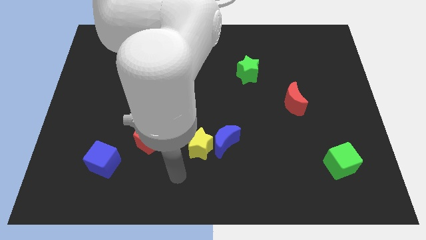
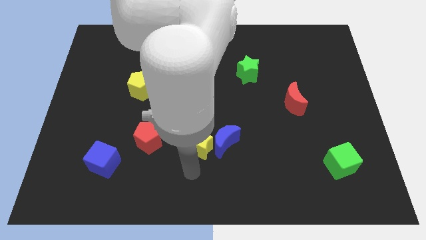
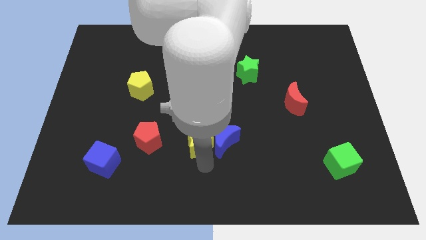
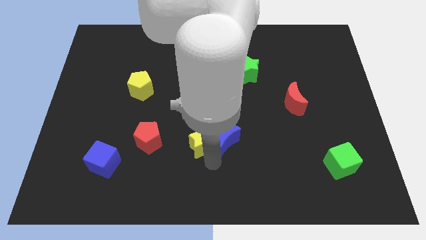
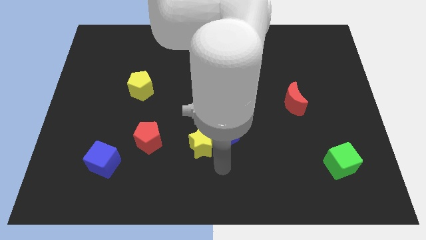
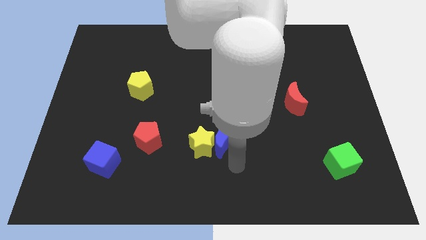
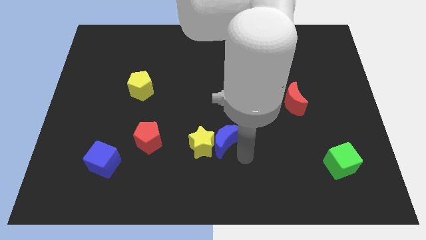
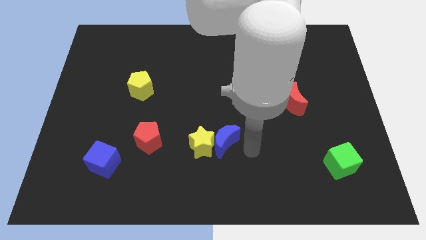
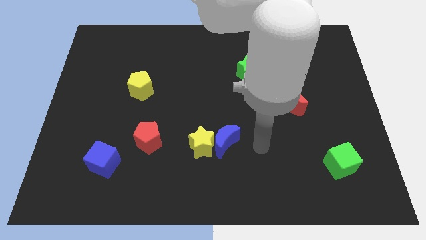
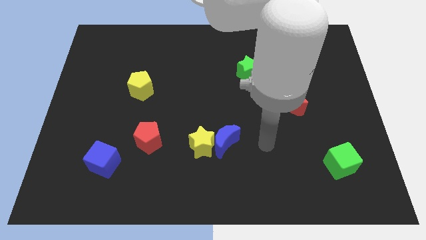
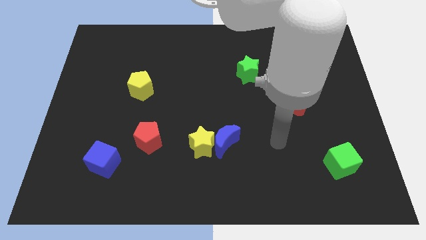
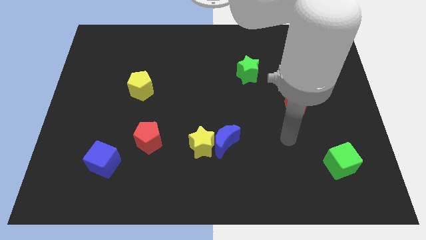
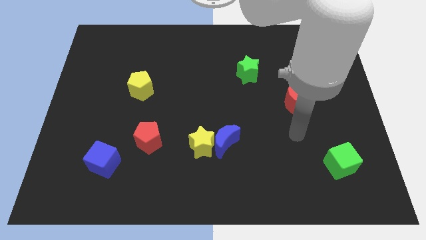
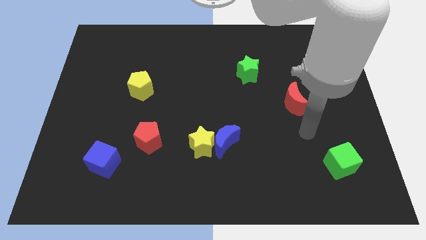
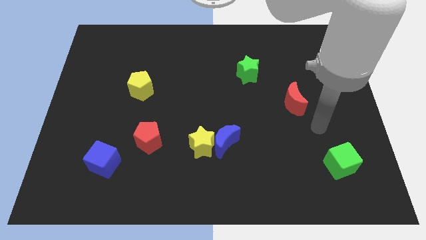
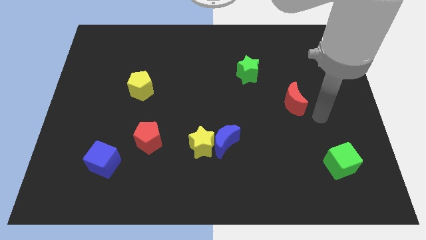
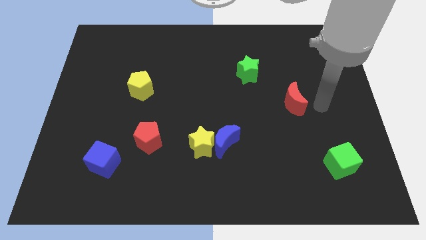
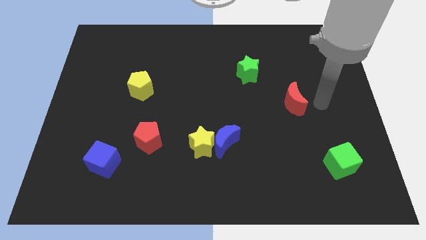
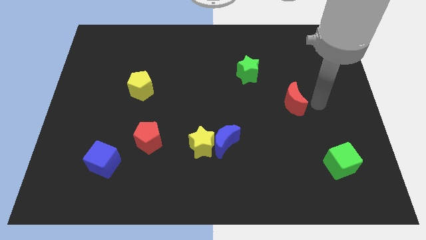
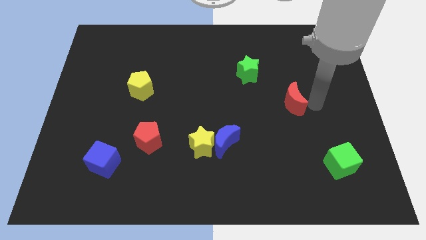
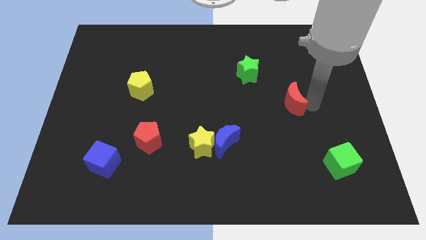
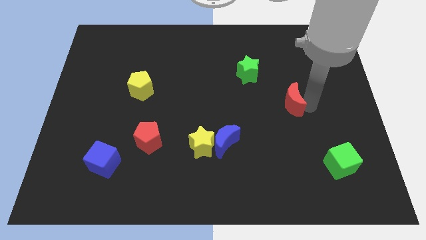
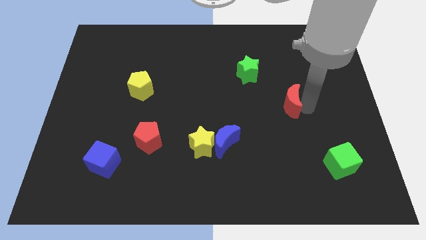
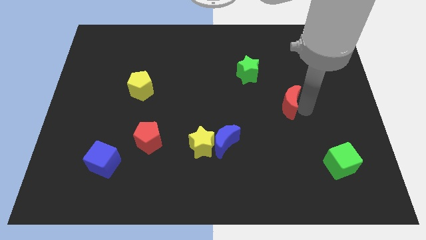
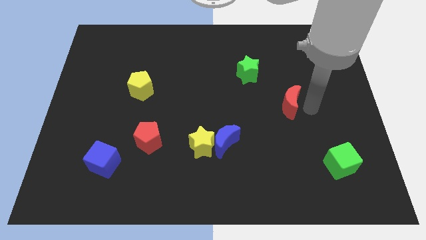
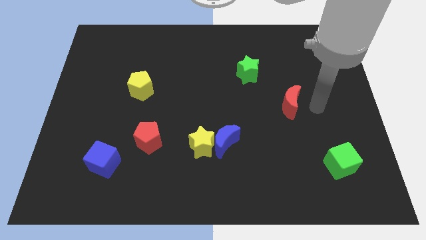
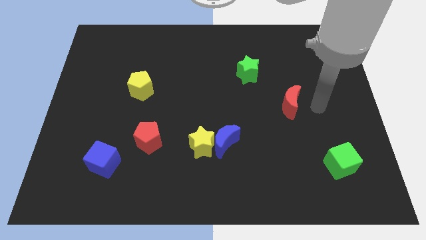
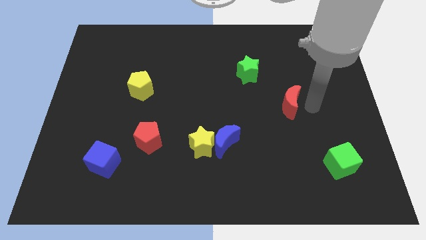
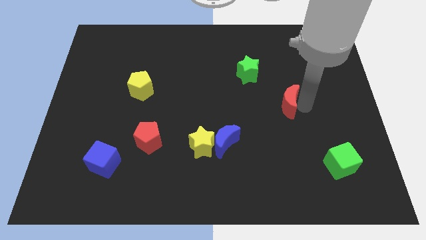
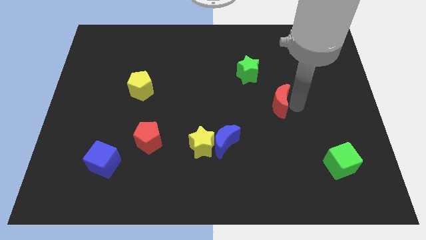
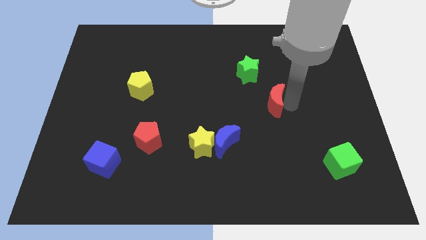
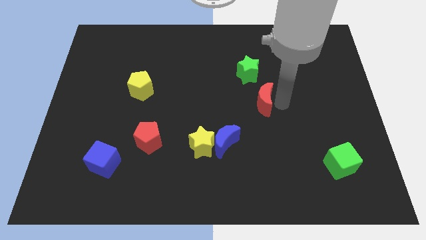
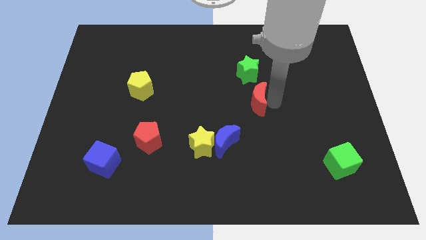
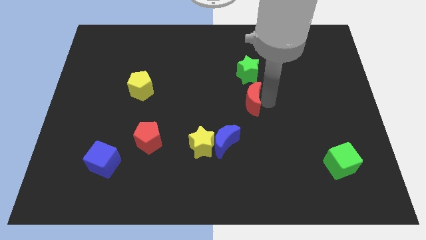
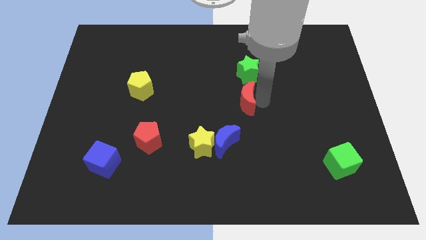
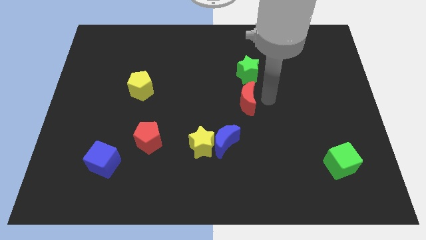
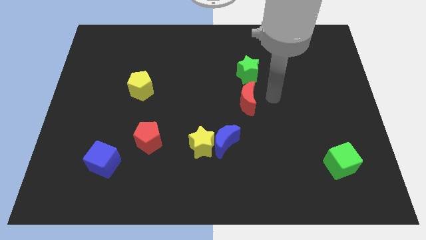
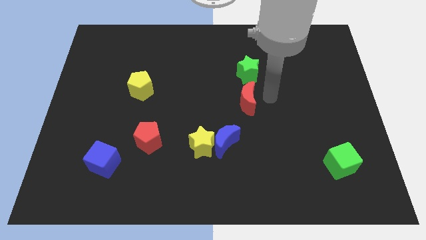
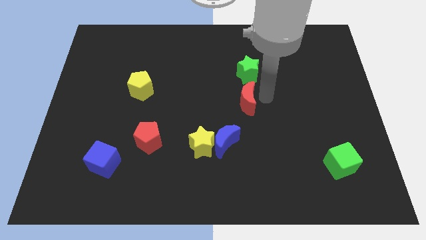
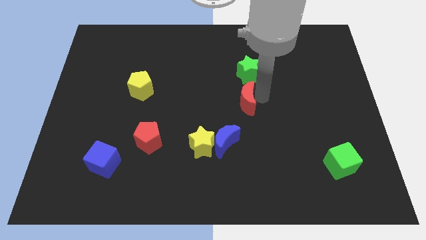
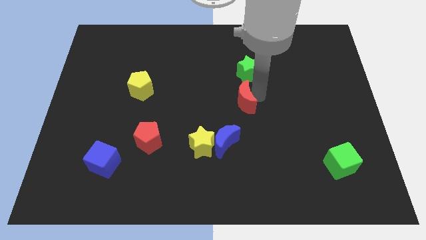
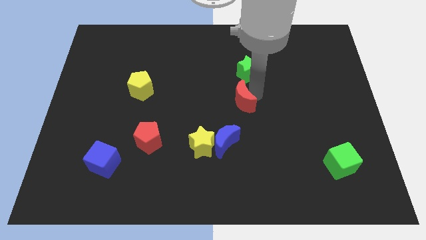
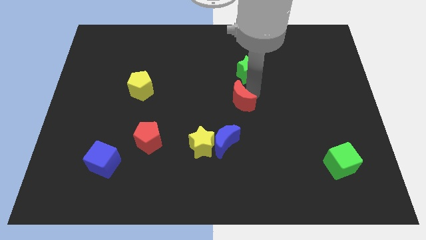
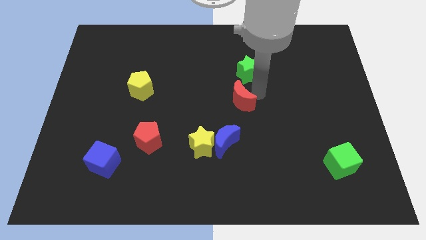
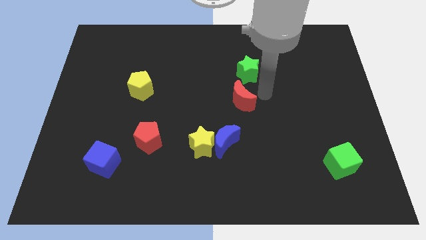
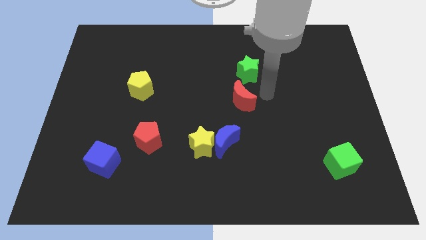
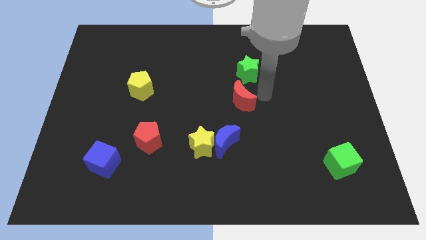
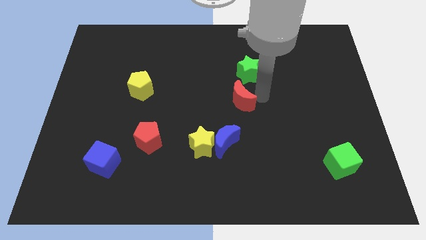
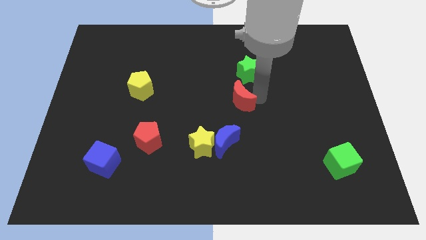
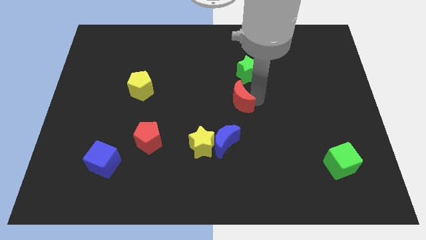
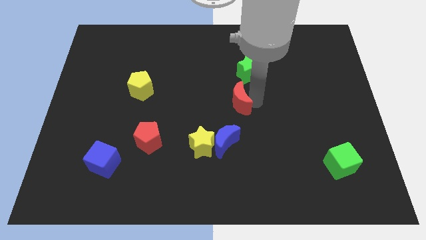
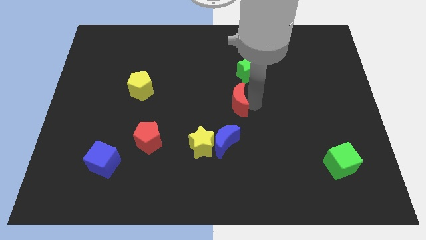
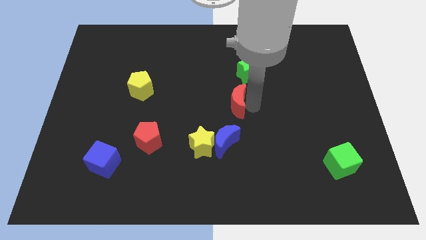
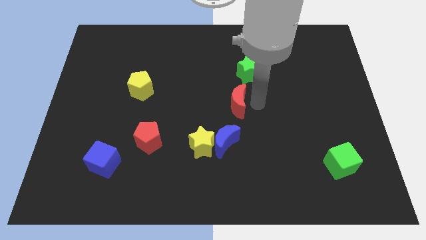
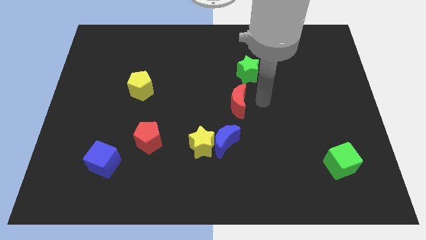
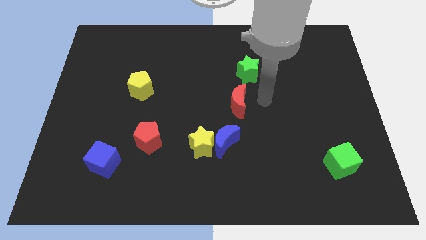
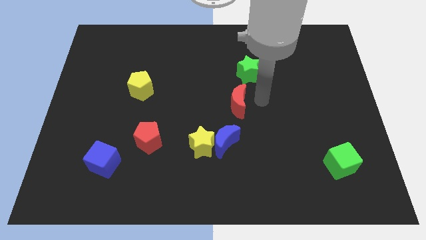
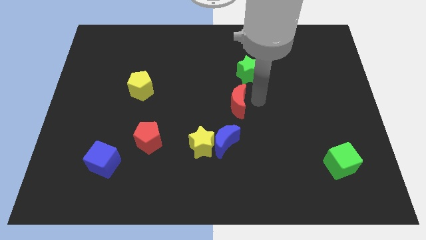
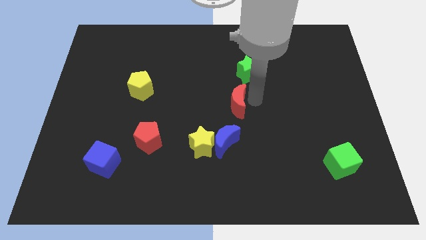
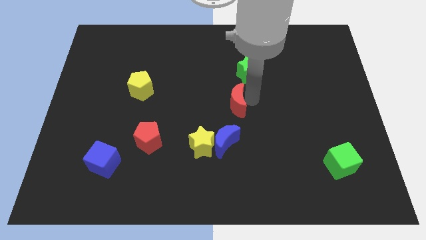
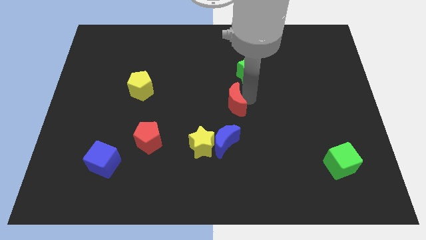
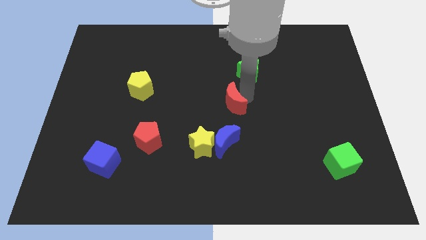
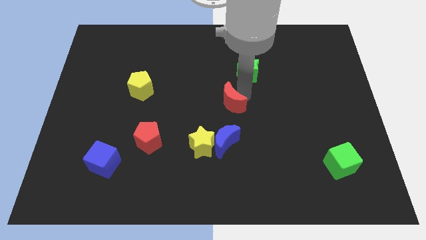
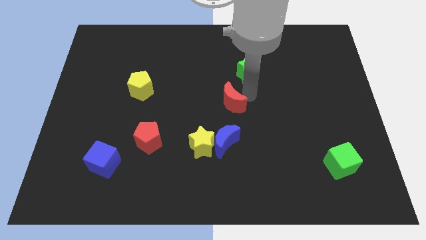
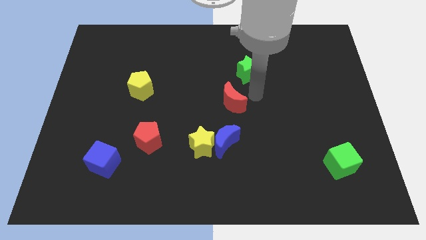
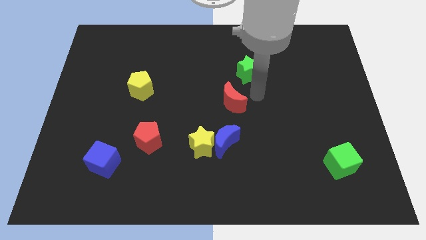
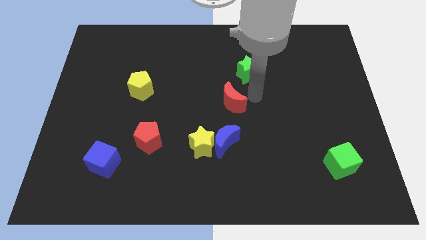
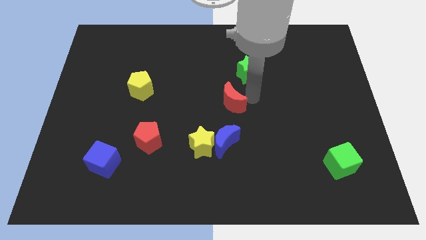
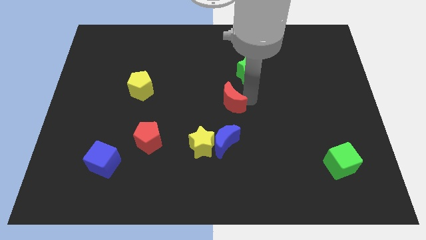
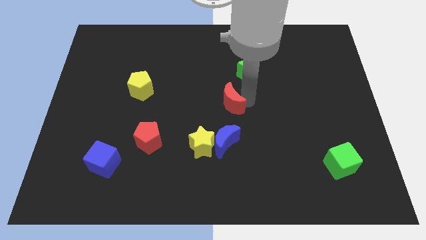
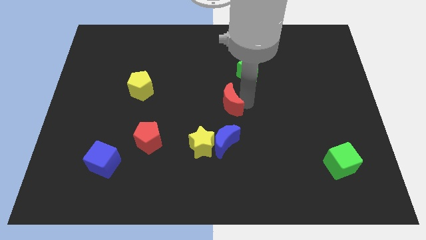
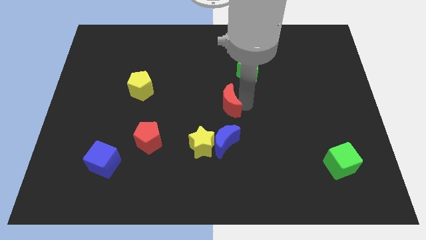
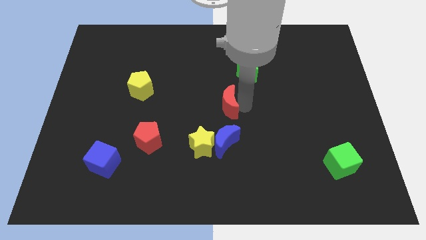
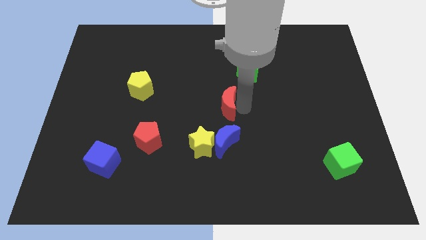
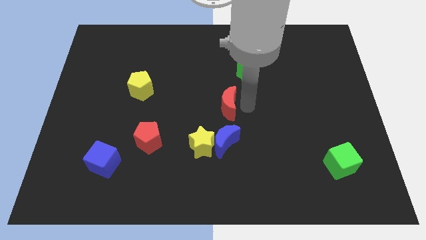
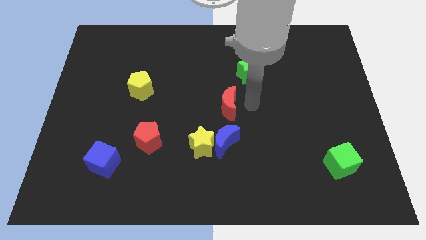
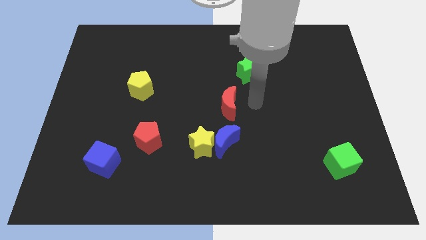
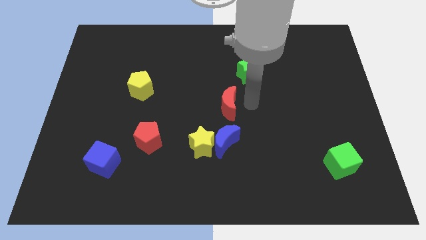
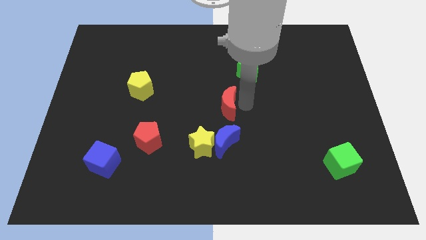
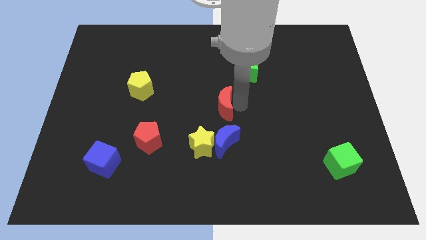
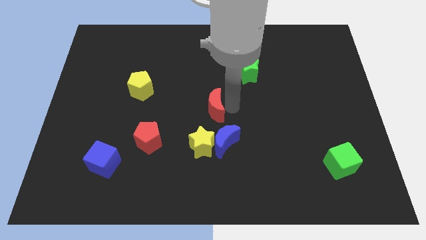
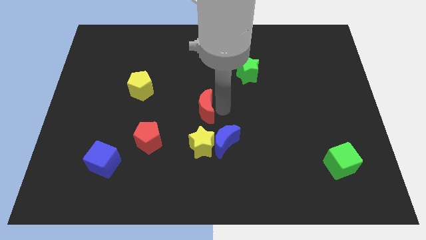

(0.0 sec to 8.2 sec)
slide the red moon to the left

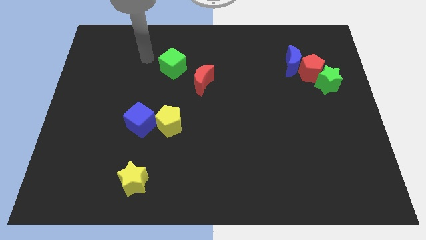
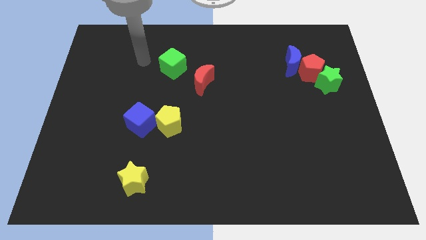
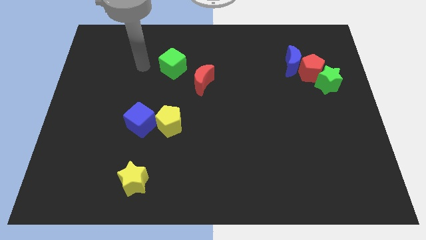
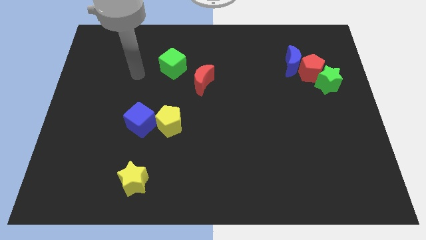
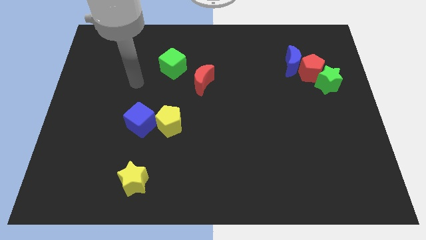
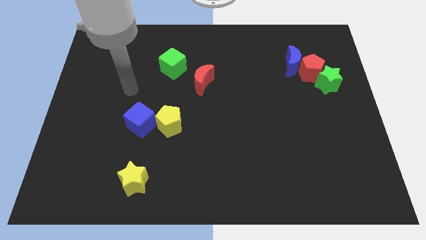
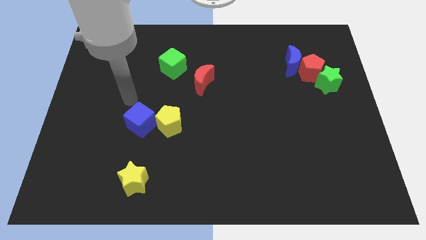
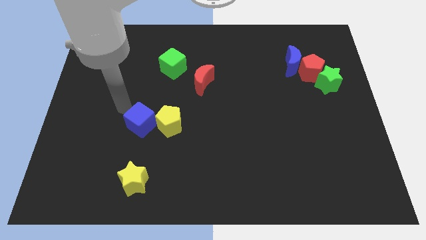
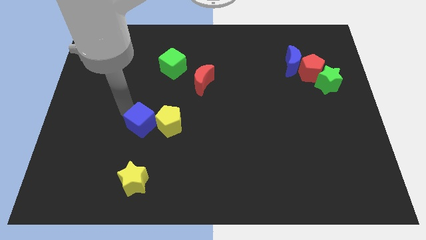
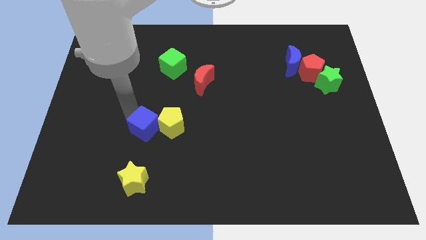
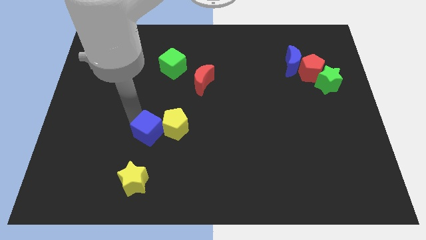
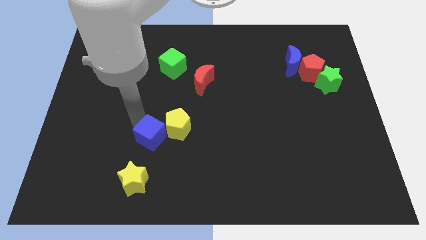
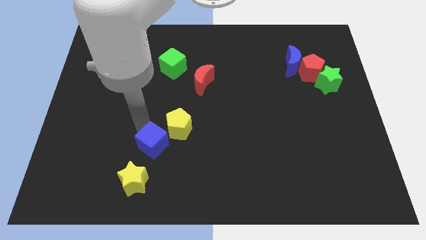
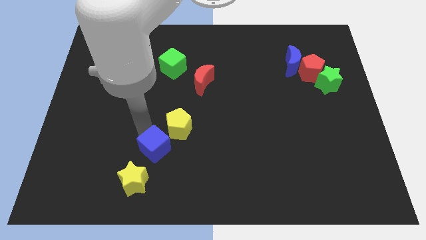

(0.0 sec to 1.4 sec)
slightly slide the blue cube downwards and right
